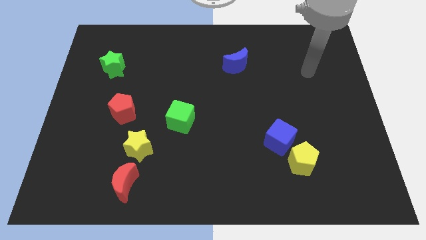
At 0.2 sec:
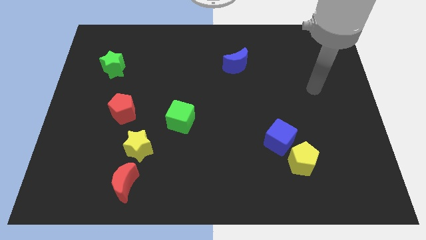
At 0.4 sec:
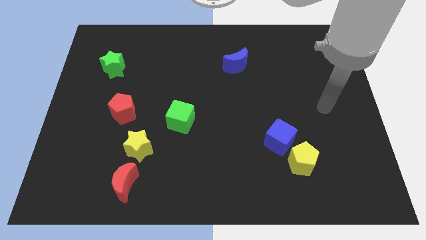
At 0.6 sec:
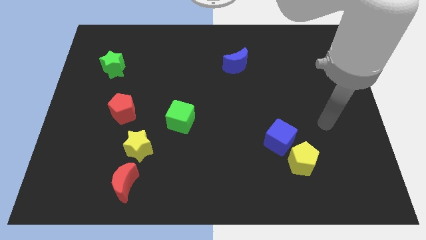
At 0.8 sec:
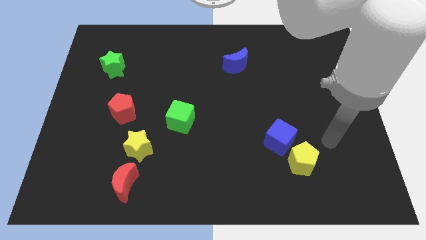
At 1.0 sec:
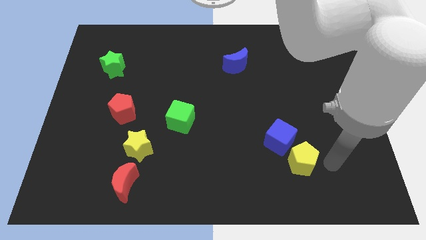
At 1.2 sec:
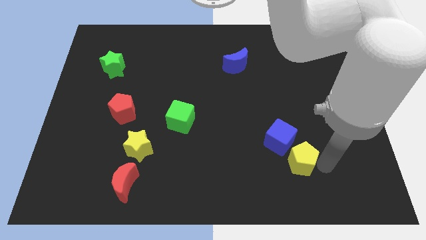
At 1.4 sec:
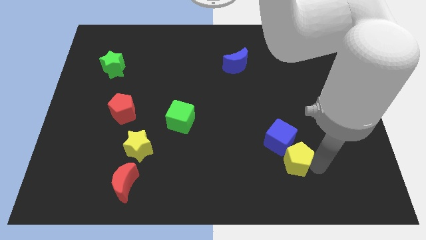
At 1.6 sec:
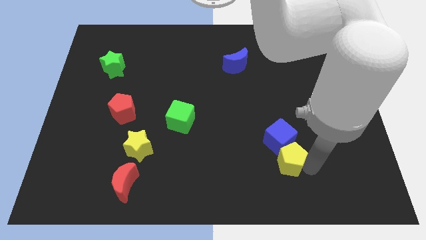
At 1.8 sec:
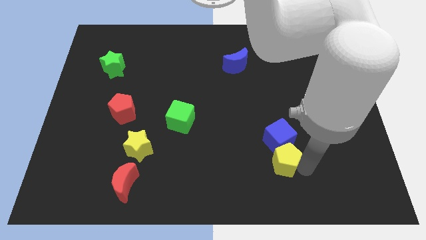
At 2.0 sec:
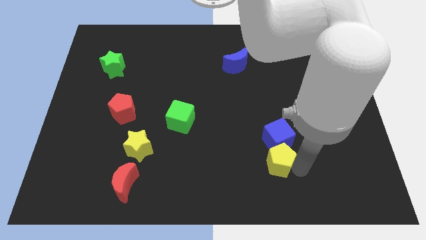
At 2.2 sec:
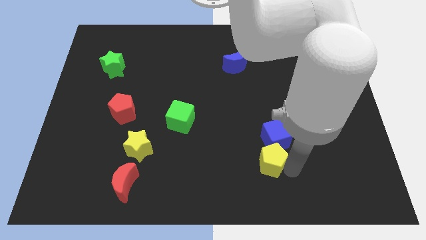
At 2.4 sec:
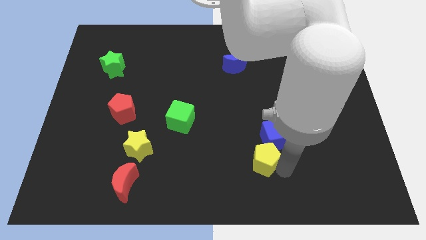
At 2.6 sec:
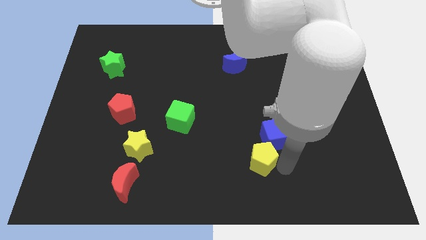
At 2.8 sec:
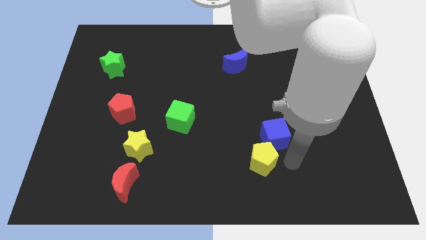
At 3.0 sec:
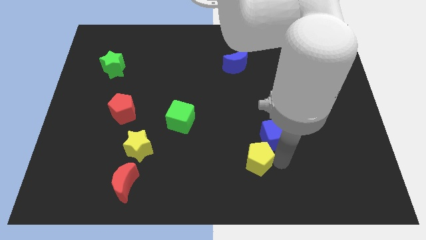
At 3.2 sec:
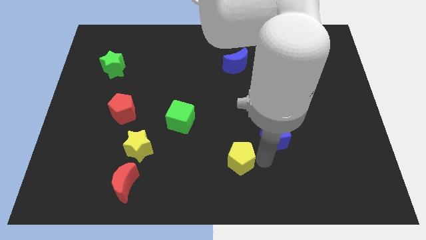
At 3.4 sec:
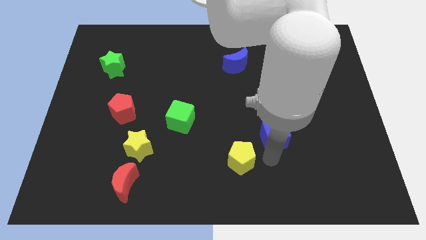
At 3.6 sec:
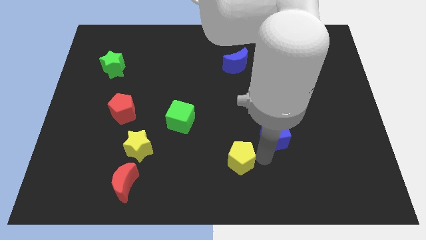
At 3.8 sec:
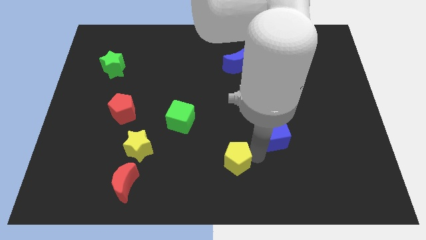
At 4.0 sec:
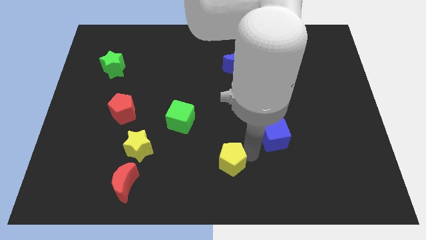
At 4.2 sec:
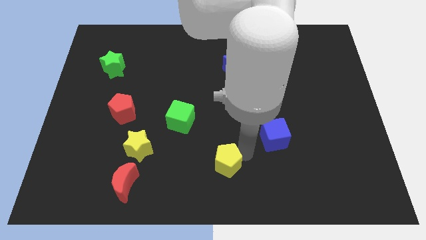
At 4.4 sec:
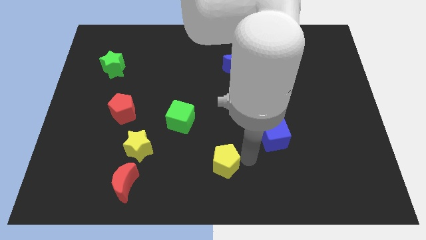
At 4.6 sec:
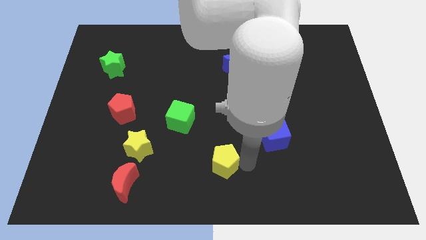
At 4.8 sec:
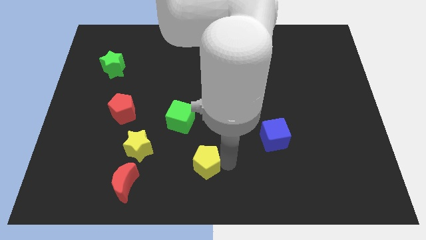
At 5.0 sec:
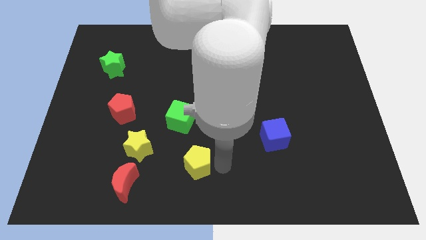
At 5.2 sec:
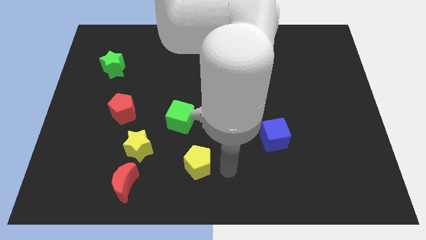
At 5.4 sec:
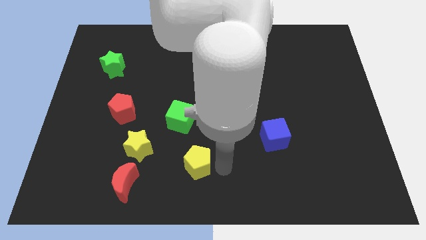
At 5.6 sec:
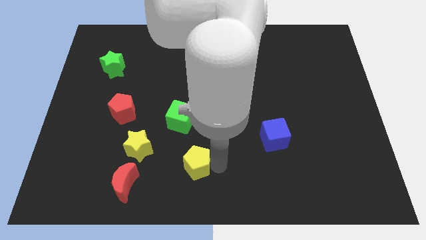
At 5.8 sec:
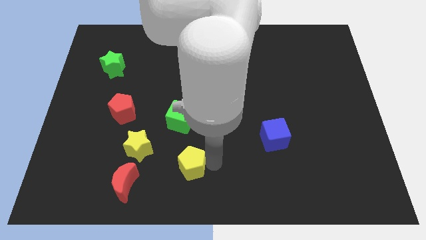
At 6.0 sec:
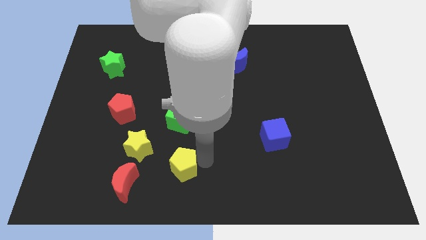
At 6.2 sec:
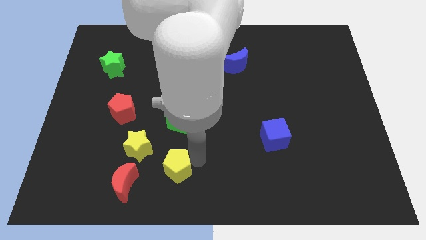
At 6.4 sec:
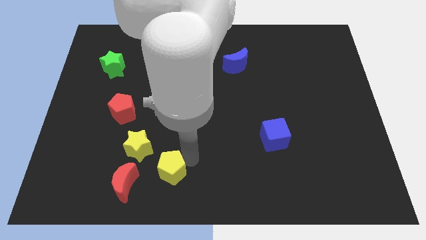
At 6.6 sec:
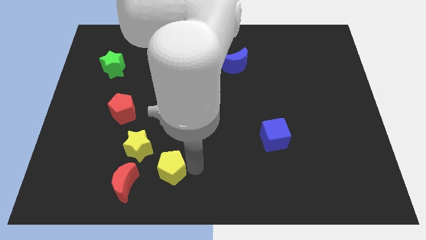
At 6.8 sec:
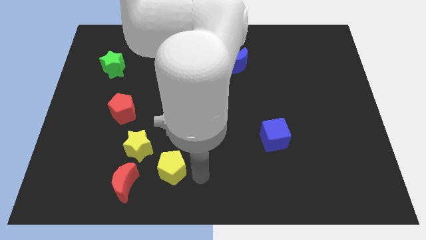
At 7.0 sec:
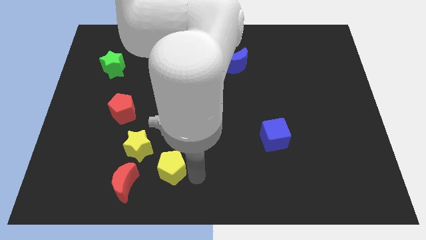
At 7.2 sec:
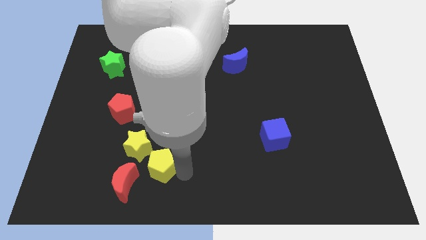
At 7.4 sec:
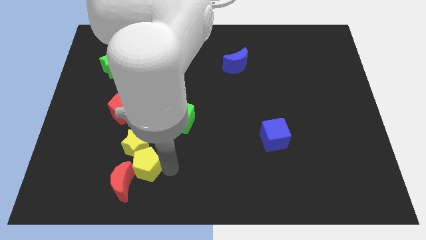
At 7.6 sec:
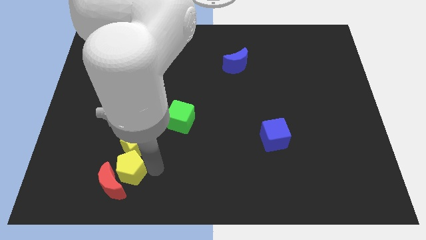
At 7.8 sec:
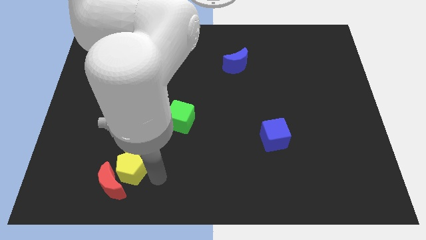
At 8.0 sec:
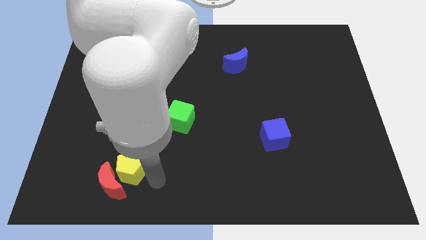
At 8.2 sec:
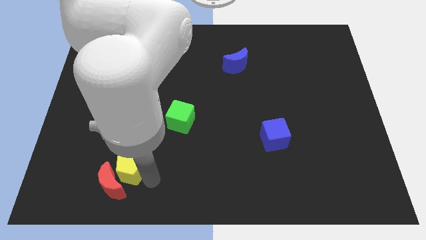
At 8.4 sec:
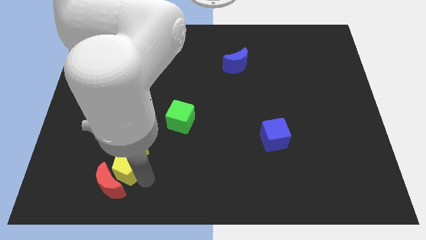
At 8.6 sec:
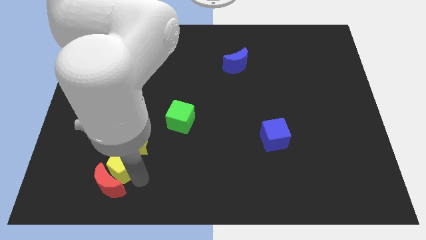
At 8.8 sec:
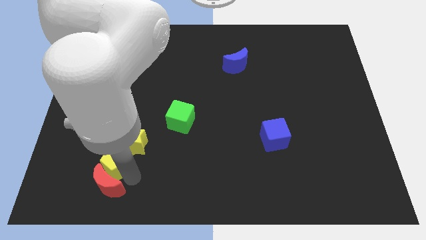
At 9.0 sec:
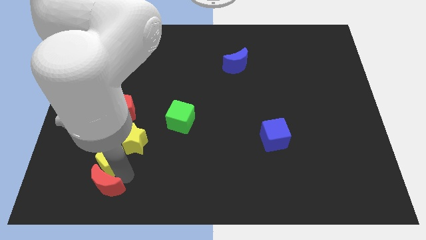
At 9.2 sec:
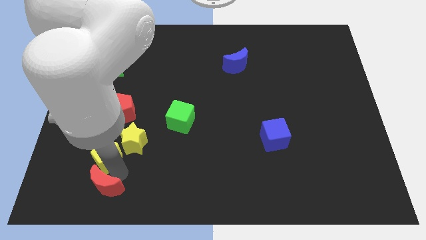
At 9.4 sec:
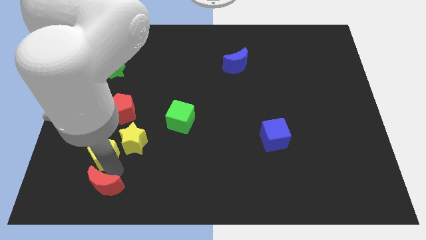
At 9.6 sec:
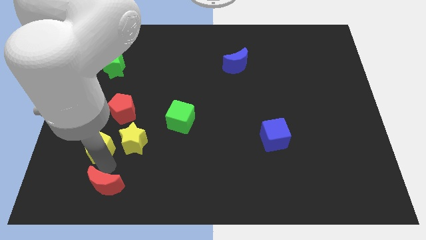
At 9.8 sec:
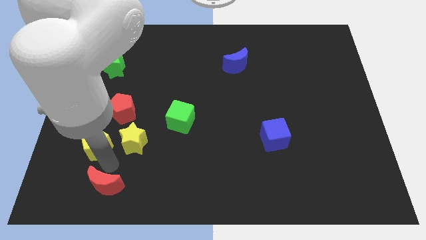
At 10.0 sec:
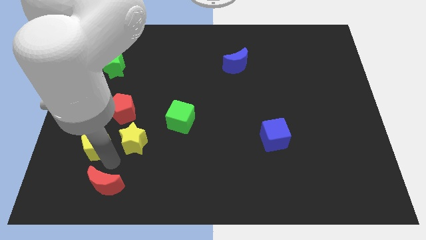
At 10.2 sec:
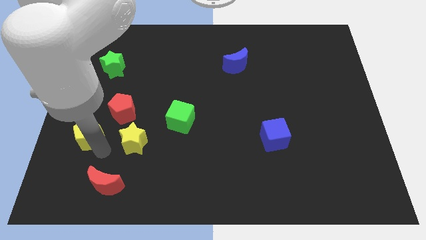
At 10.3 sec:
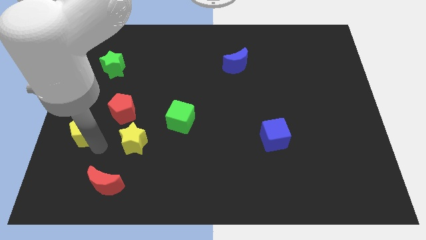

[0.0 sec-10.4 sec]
push the yellow pentagon to the center left

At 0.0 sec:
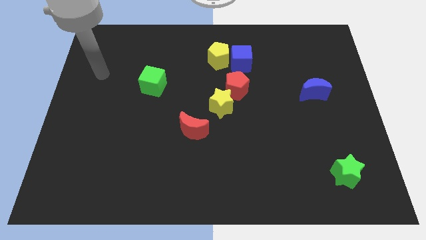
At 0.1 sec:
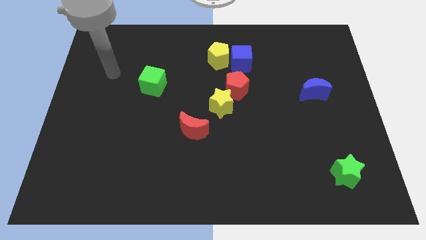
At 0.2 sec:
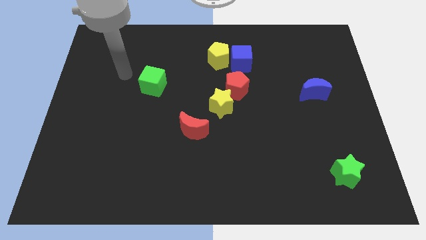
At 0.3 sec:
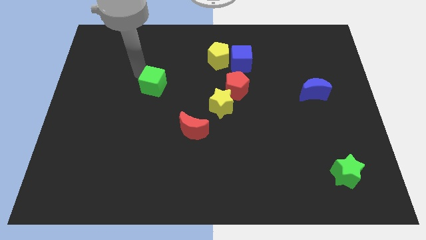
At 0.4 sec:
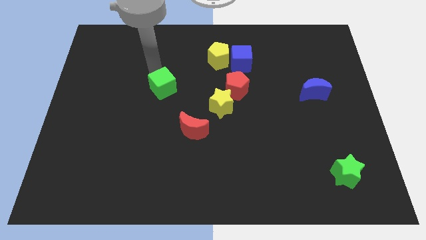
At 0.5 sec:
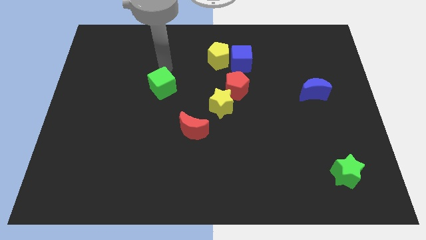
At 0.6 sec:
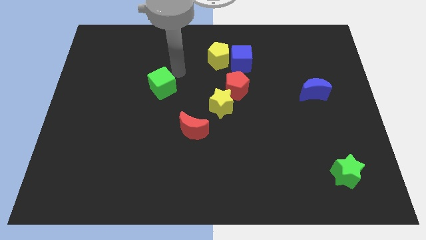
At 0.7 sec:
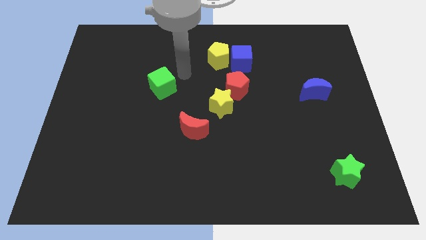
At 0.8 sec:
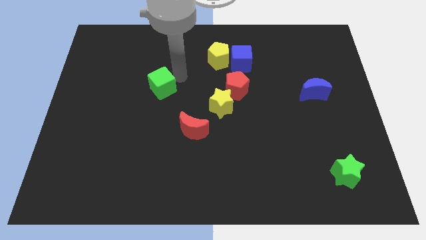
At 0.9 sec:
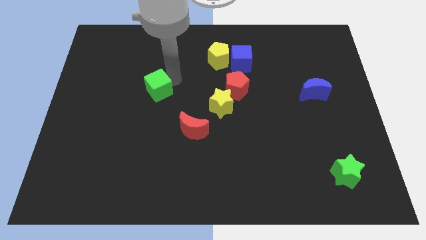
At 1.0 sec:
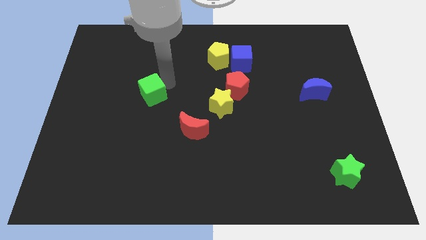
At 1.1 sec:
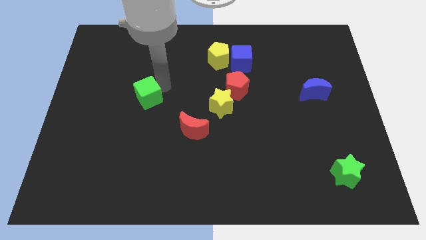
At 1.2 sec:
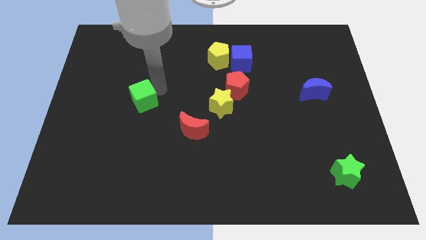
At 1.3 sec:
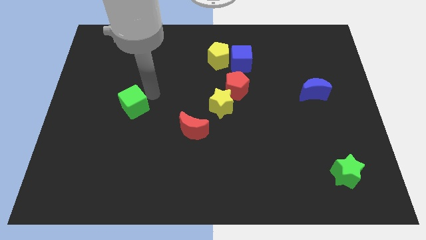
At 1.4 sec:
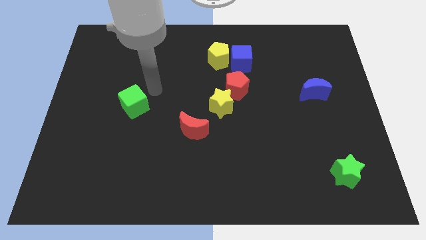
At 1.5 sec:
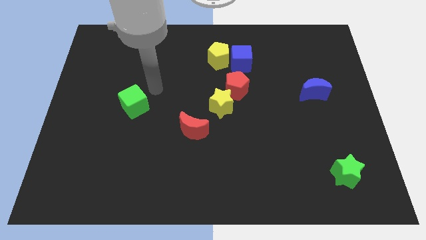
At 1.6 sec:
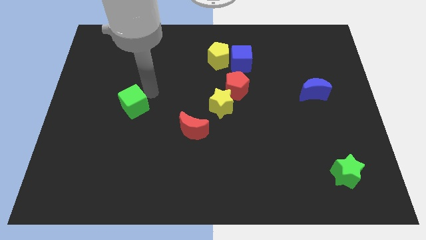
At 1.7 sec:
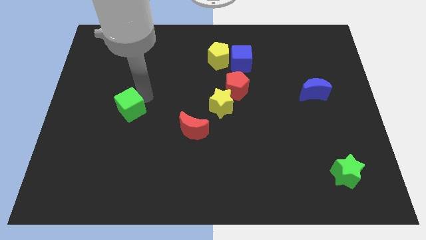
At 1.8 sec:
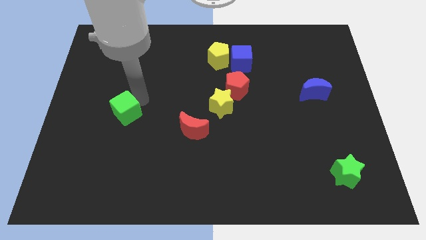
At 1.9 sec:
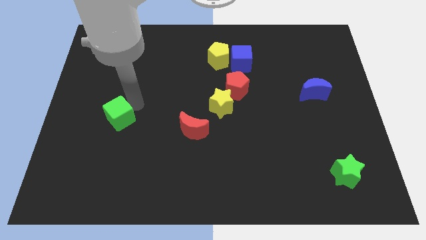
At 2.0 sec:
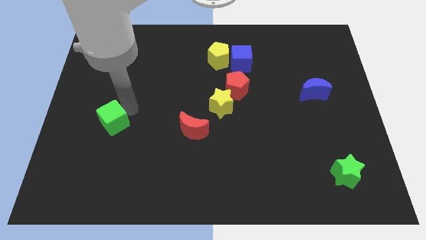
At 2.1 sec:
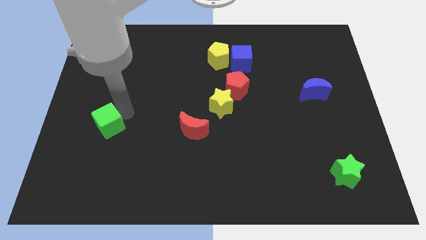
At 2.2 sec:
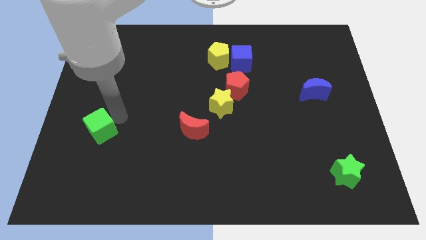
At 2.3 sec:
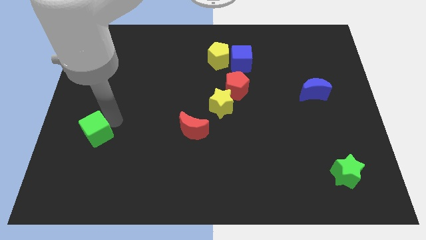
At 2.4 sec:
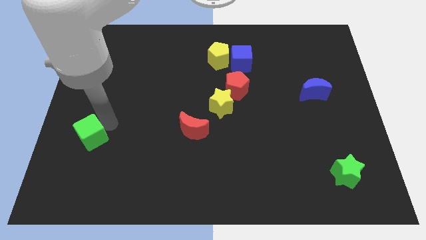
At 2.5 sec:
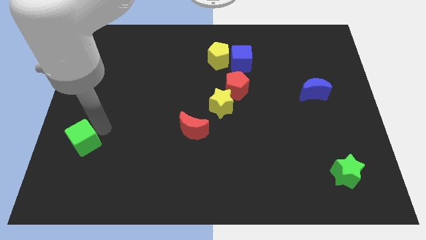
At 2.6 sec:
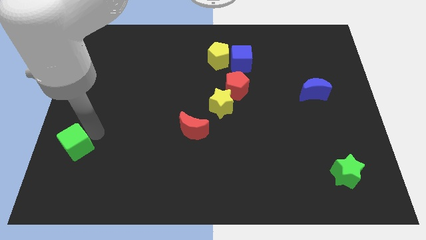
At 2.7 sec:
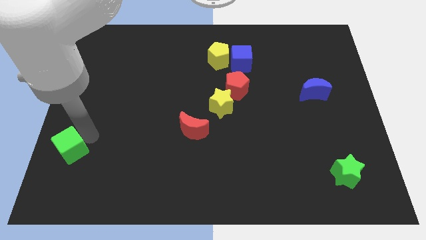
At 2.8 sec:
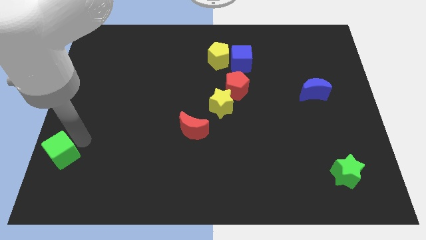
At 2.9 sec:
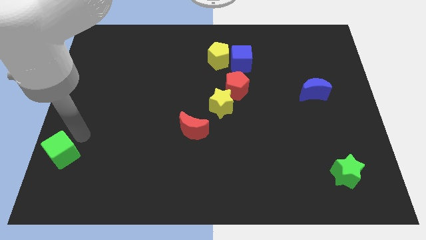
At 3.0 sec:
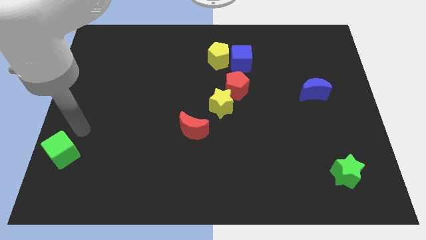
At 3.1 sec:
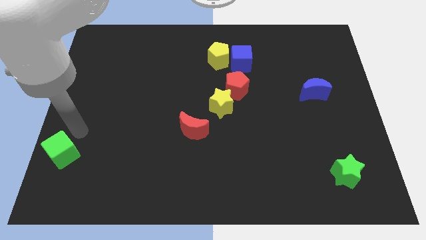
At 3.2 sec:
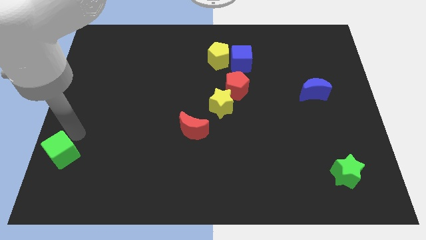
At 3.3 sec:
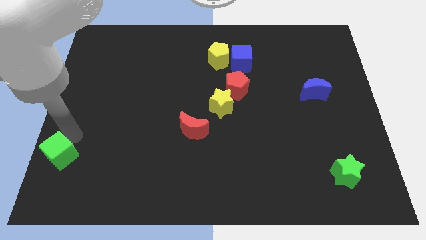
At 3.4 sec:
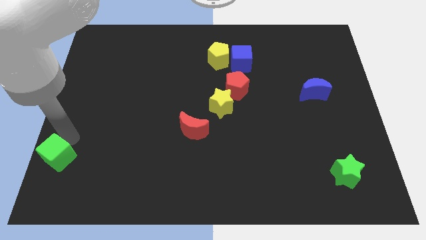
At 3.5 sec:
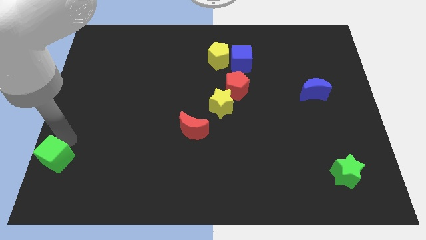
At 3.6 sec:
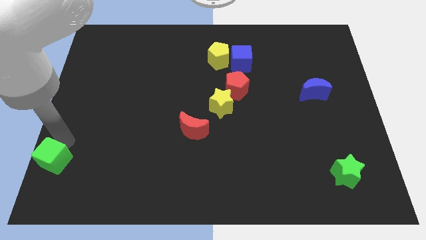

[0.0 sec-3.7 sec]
slide the green cube to the lower left corner
